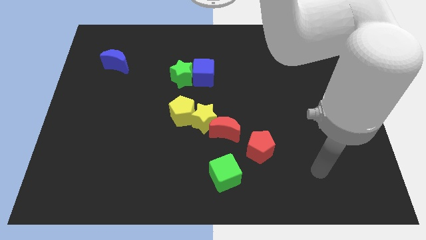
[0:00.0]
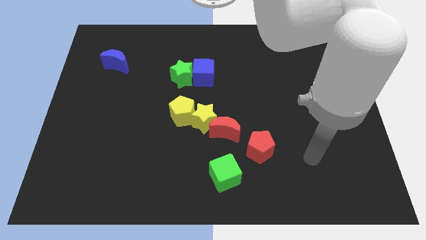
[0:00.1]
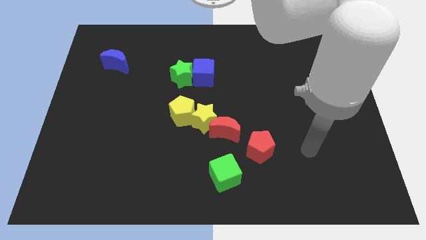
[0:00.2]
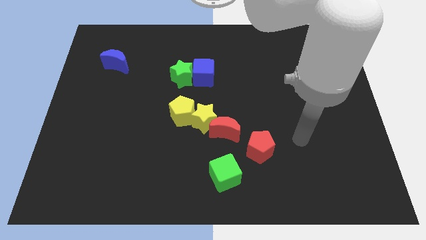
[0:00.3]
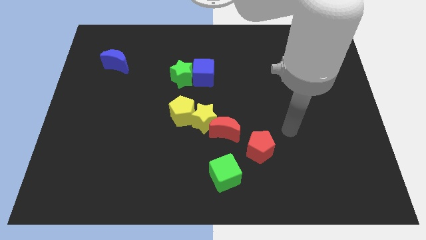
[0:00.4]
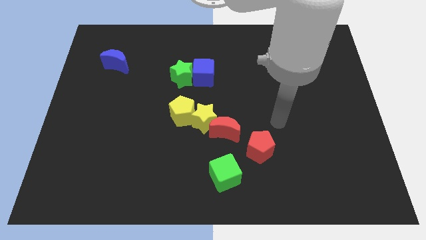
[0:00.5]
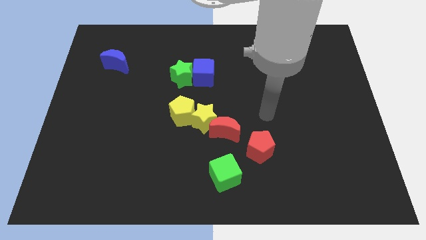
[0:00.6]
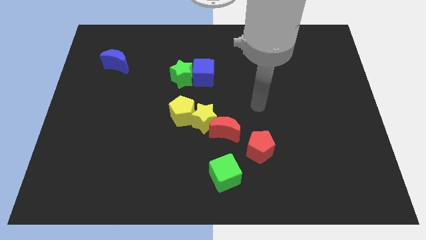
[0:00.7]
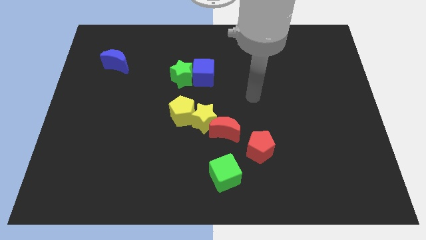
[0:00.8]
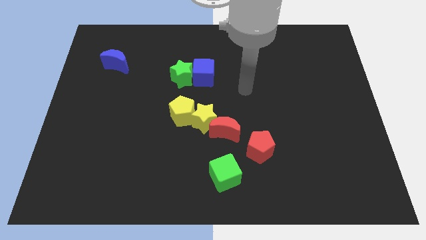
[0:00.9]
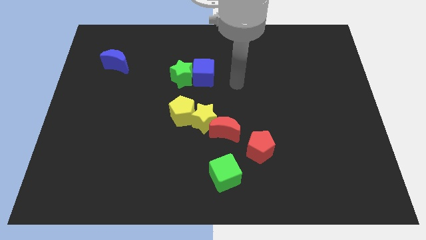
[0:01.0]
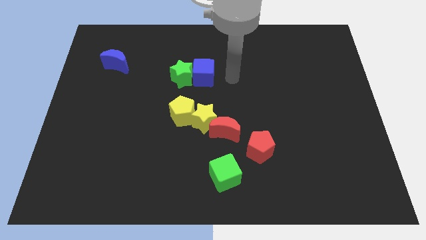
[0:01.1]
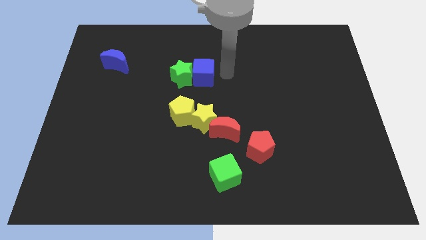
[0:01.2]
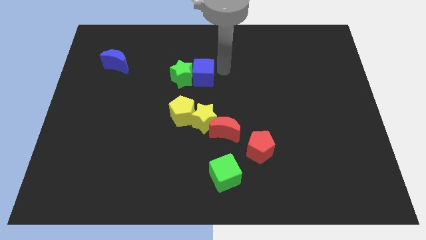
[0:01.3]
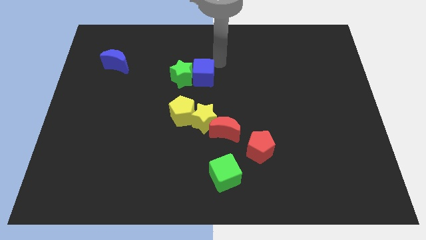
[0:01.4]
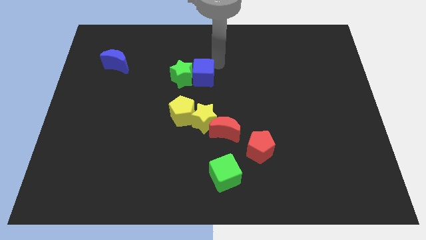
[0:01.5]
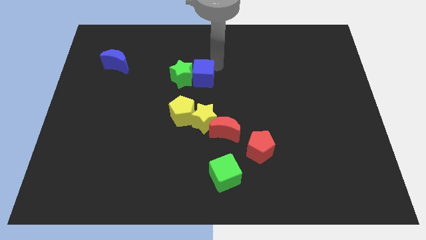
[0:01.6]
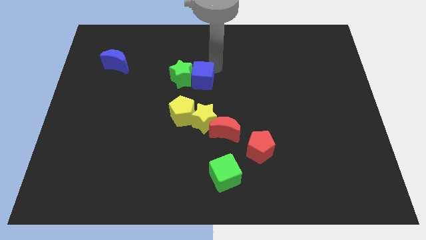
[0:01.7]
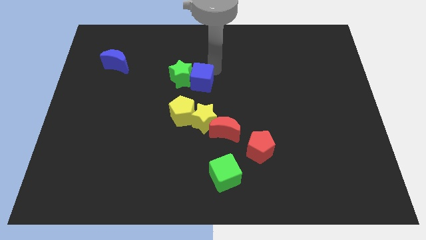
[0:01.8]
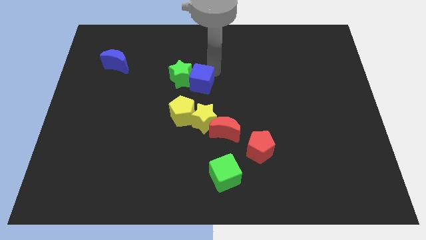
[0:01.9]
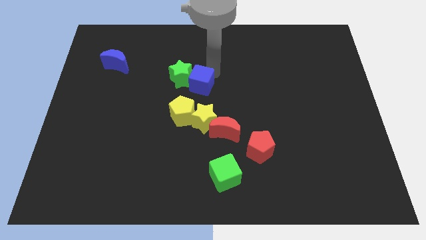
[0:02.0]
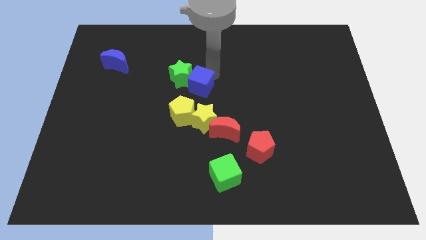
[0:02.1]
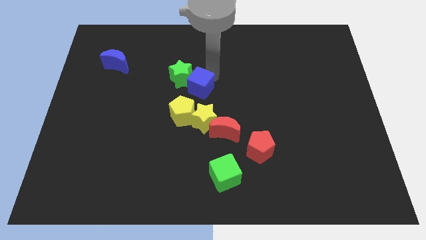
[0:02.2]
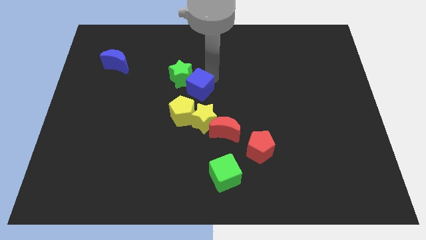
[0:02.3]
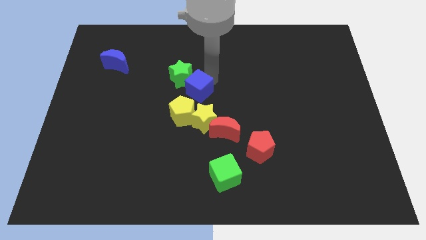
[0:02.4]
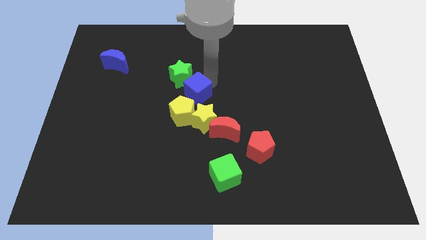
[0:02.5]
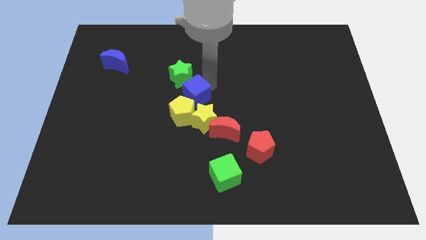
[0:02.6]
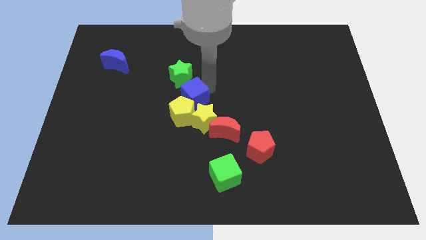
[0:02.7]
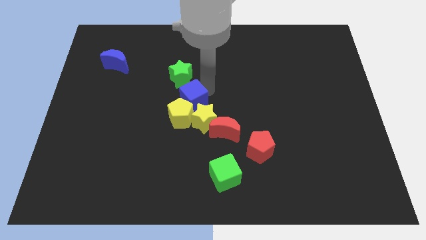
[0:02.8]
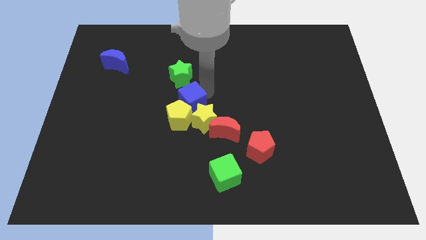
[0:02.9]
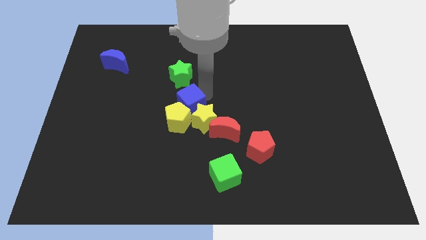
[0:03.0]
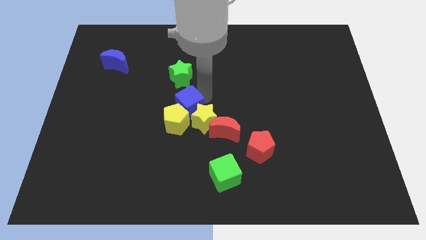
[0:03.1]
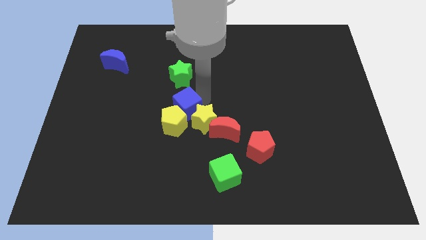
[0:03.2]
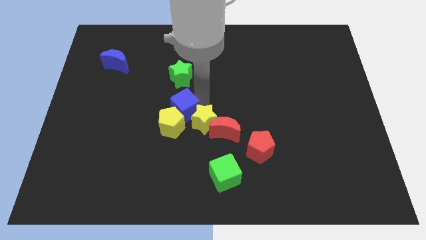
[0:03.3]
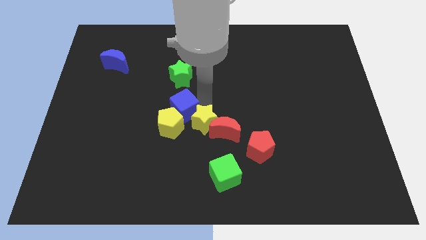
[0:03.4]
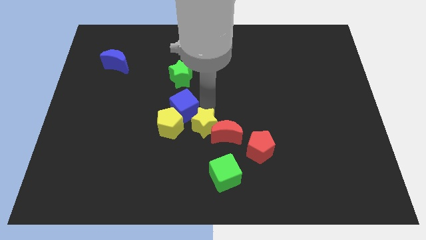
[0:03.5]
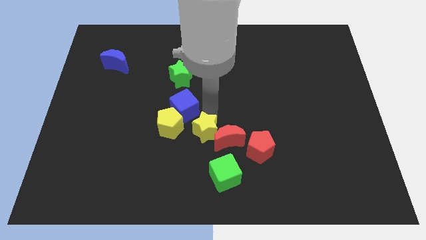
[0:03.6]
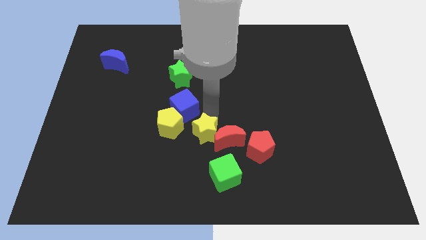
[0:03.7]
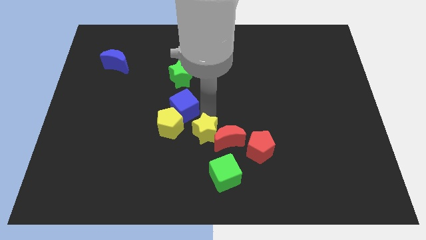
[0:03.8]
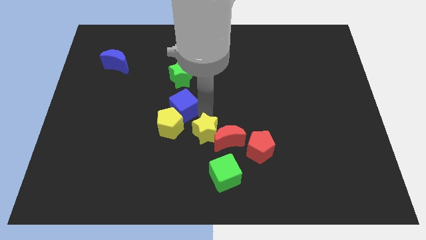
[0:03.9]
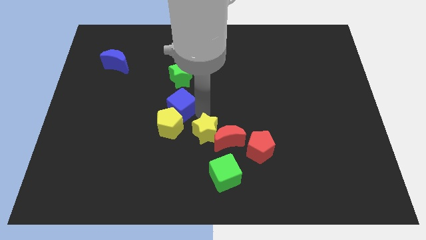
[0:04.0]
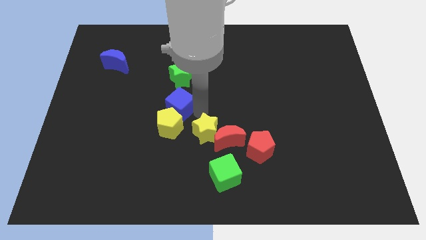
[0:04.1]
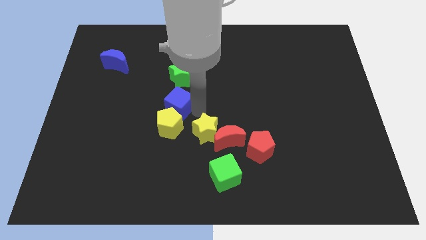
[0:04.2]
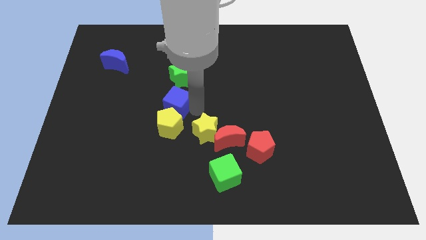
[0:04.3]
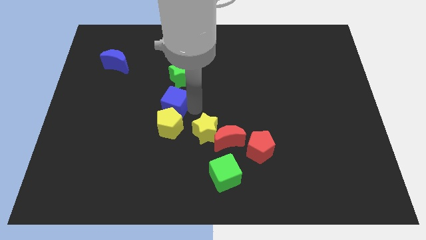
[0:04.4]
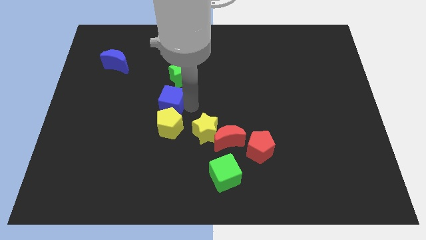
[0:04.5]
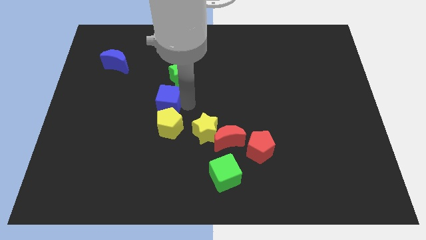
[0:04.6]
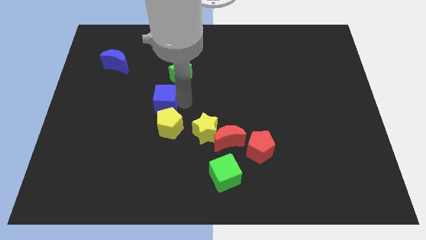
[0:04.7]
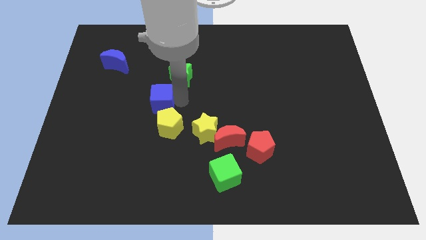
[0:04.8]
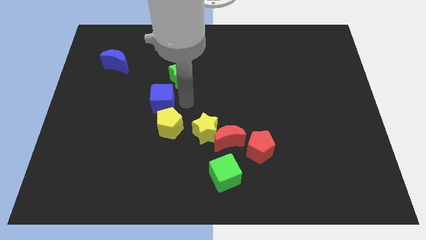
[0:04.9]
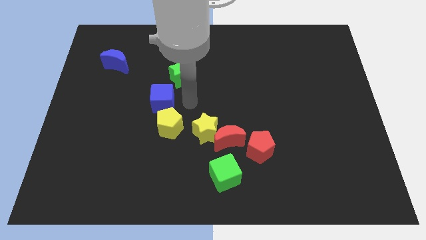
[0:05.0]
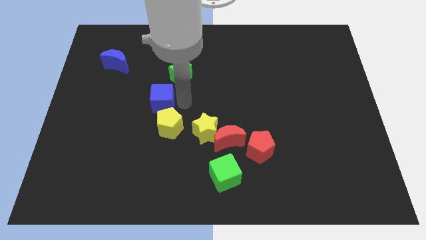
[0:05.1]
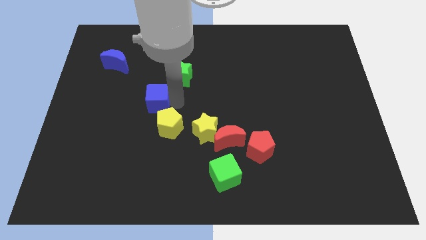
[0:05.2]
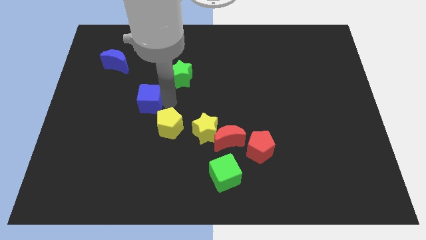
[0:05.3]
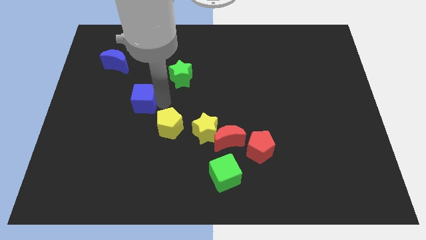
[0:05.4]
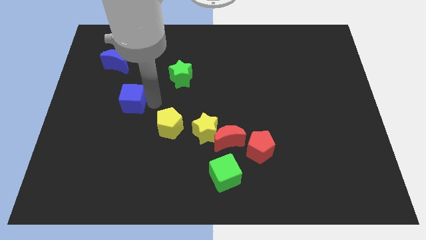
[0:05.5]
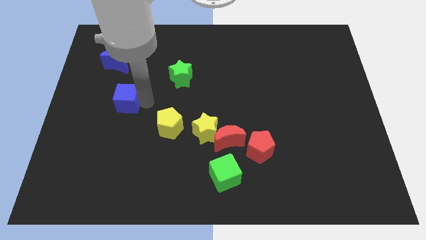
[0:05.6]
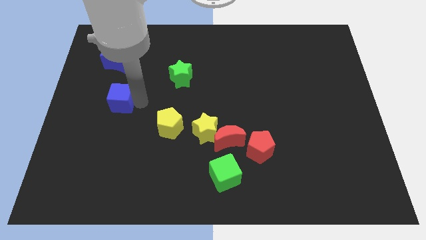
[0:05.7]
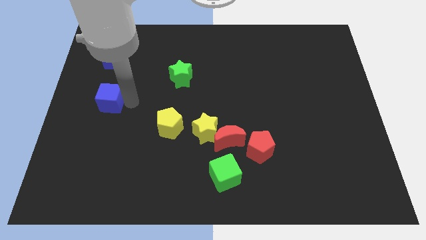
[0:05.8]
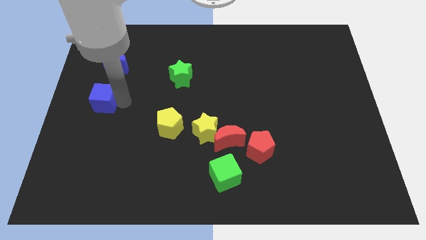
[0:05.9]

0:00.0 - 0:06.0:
slide the blue cube to the left side of the board

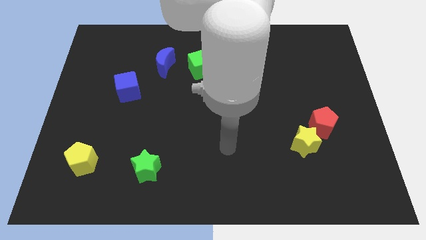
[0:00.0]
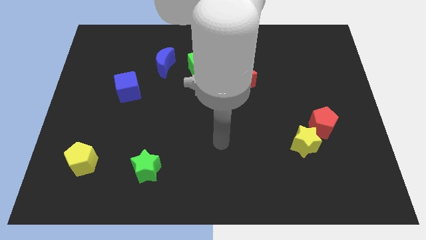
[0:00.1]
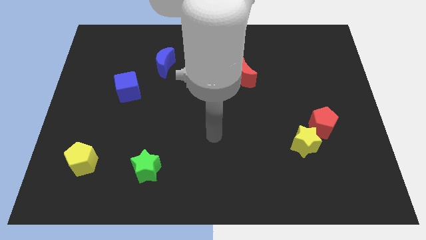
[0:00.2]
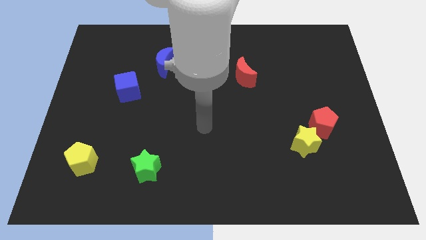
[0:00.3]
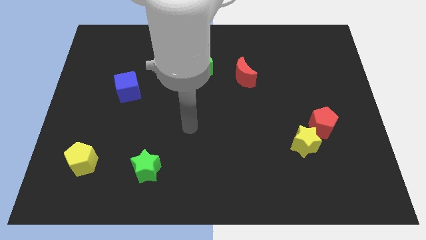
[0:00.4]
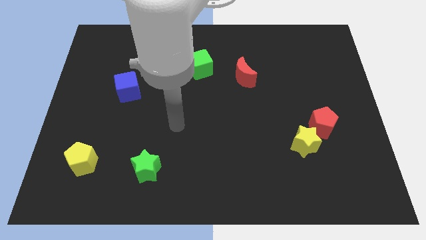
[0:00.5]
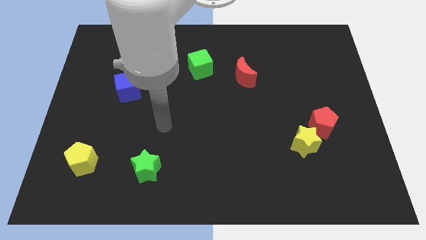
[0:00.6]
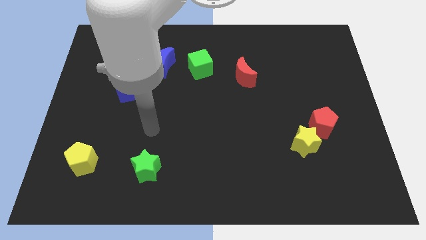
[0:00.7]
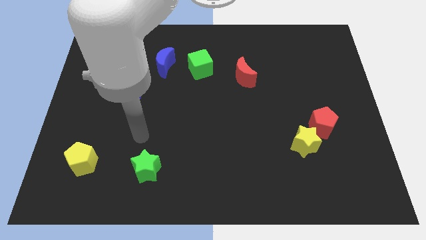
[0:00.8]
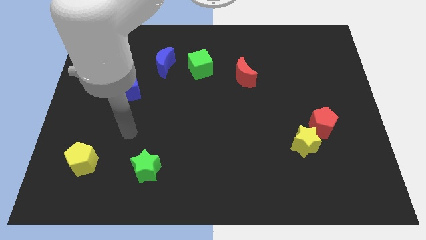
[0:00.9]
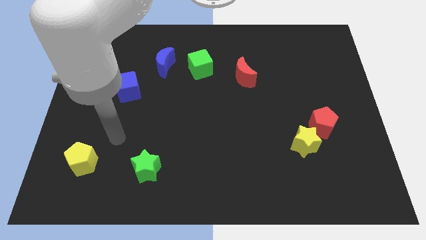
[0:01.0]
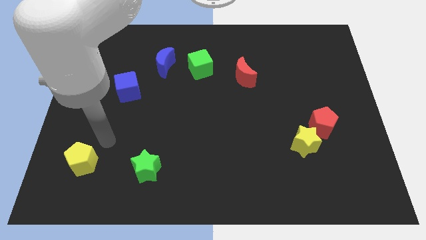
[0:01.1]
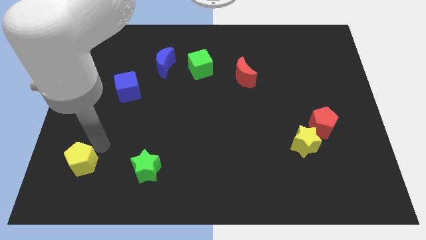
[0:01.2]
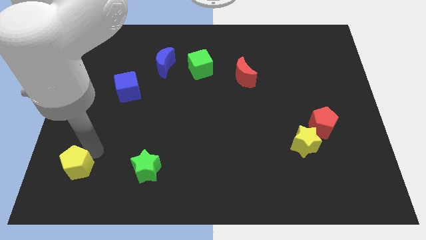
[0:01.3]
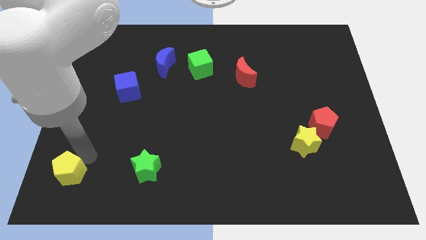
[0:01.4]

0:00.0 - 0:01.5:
slide the yellow pentagon to the bottom left
